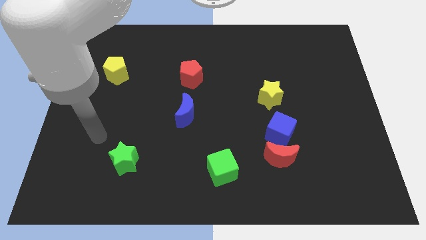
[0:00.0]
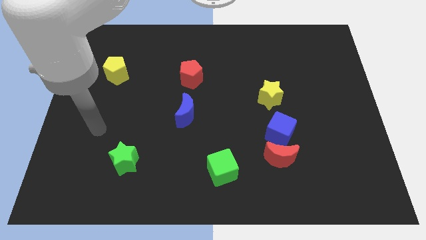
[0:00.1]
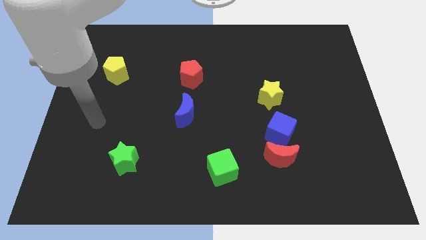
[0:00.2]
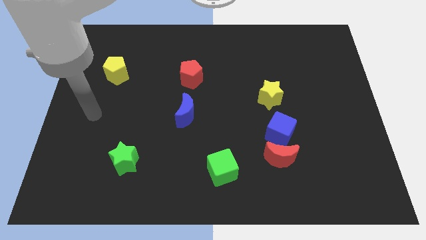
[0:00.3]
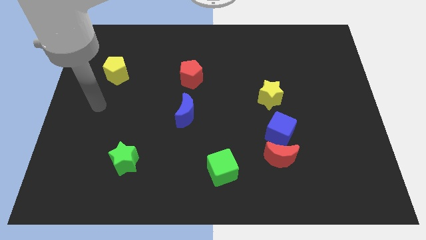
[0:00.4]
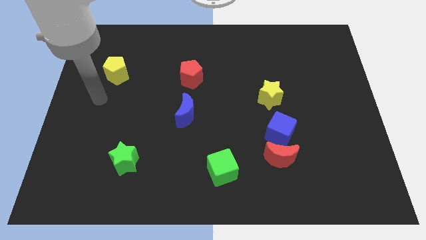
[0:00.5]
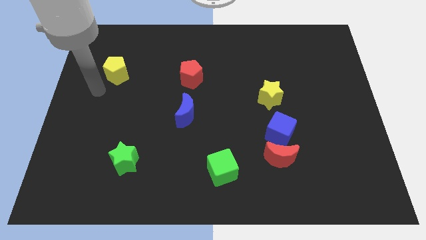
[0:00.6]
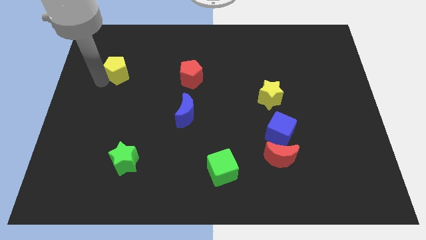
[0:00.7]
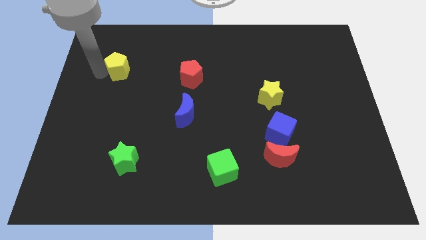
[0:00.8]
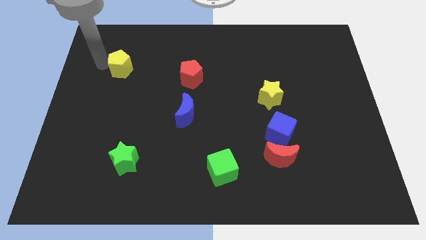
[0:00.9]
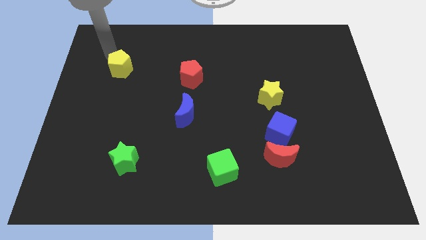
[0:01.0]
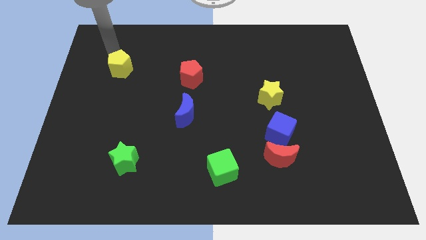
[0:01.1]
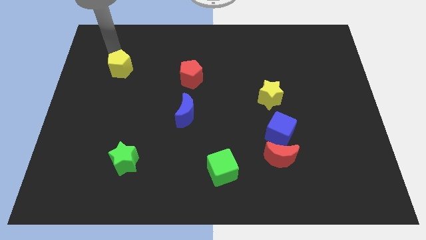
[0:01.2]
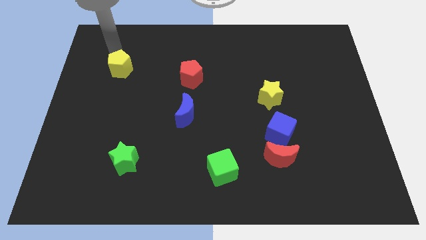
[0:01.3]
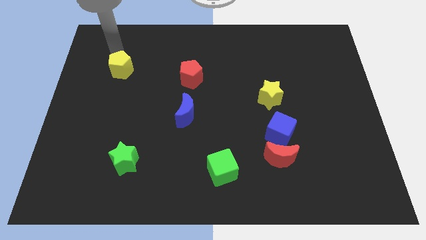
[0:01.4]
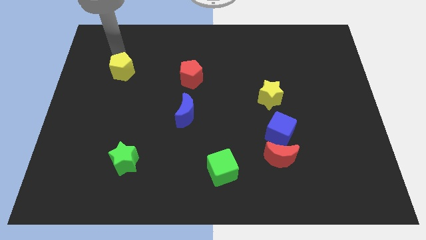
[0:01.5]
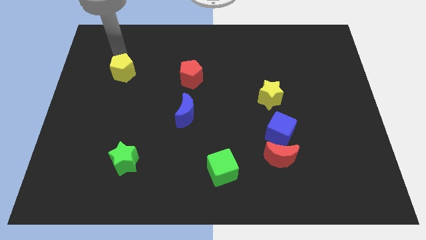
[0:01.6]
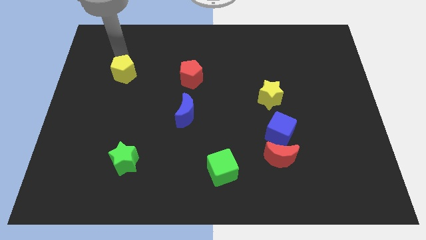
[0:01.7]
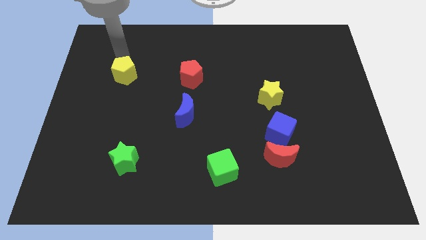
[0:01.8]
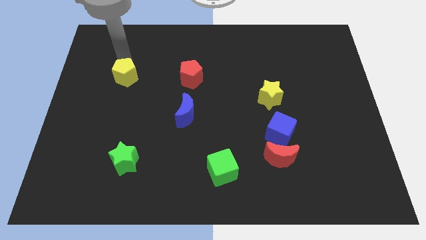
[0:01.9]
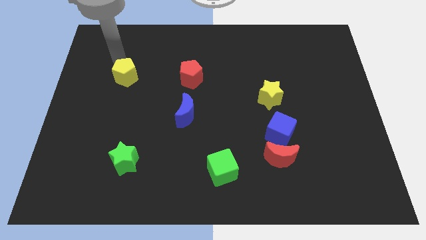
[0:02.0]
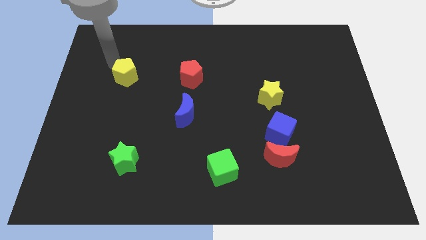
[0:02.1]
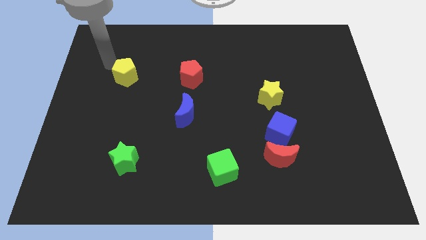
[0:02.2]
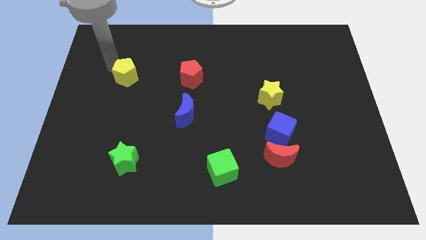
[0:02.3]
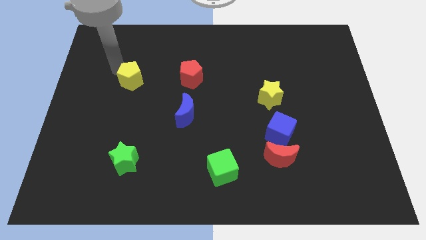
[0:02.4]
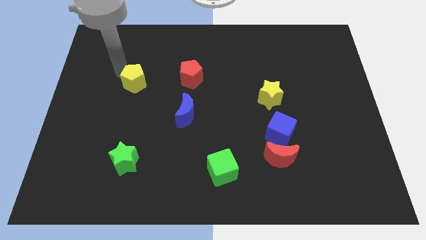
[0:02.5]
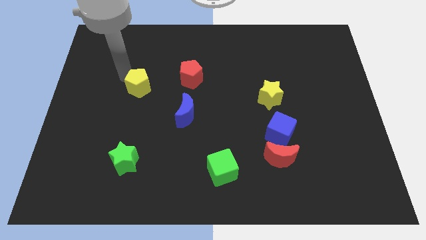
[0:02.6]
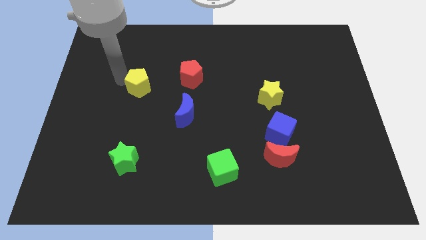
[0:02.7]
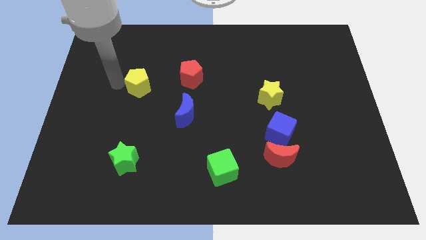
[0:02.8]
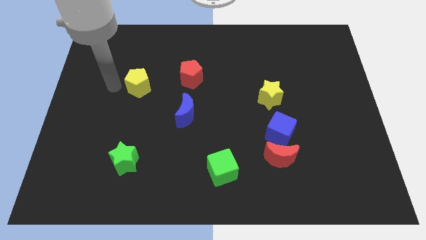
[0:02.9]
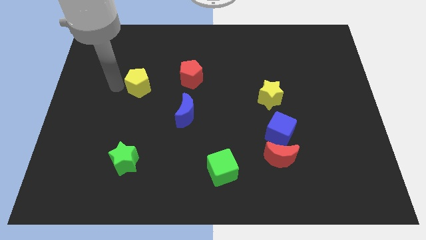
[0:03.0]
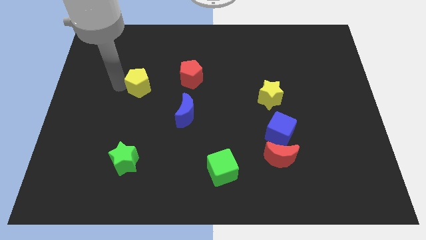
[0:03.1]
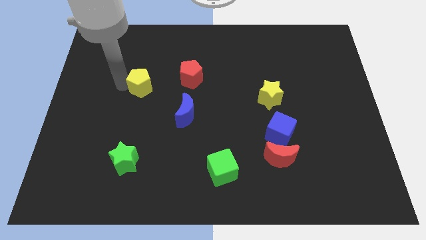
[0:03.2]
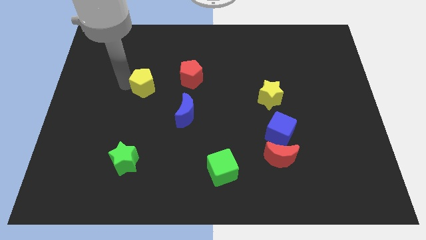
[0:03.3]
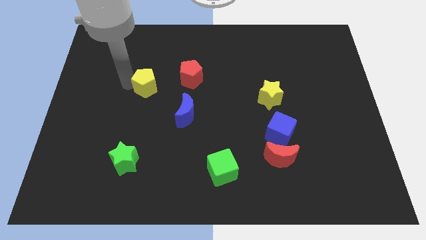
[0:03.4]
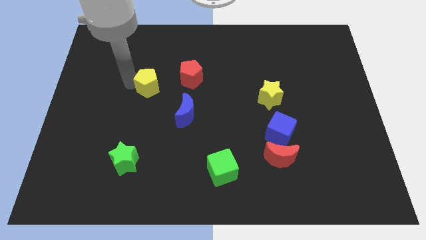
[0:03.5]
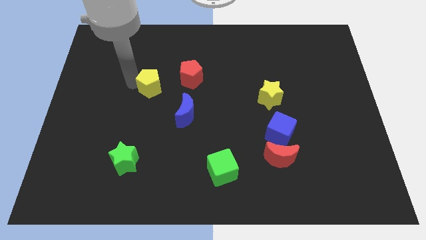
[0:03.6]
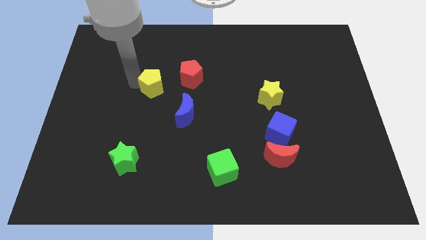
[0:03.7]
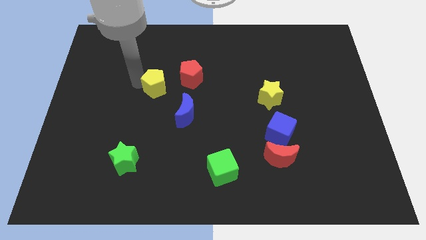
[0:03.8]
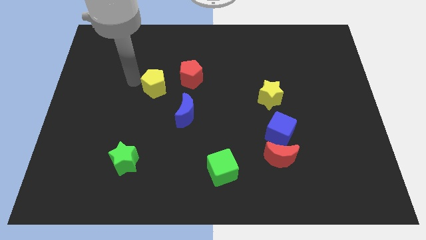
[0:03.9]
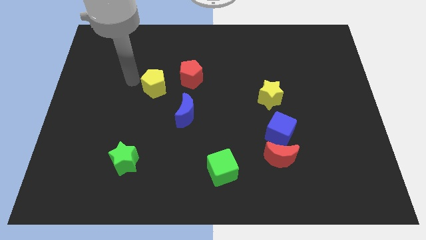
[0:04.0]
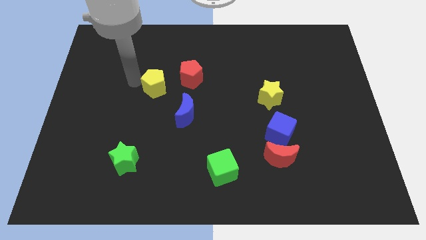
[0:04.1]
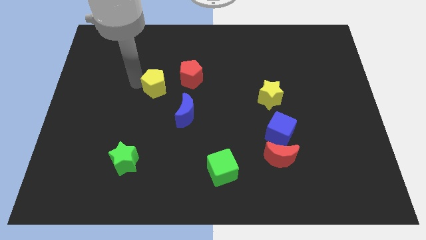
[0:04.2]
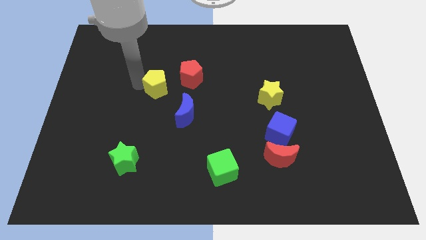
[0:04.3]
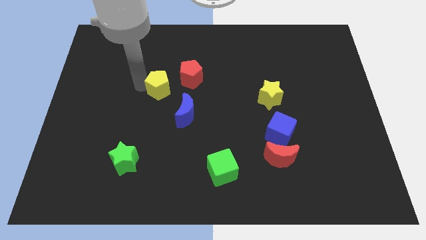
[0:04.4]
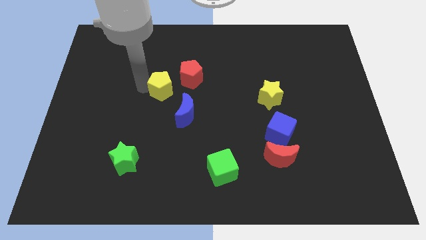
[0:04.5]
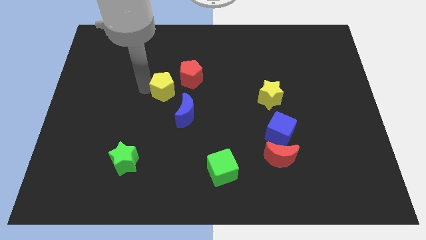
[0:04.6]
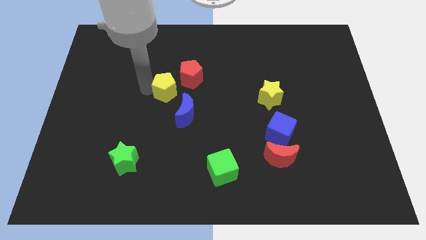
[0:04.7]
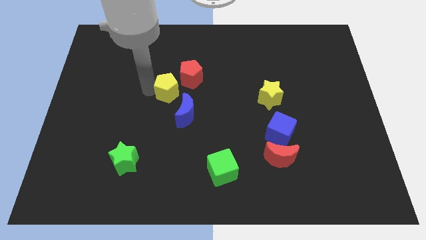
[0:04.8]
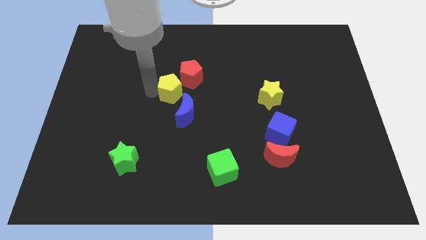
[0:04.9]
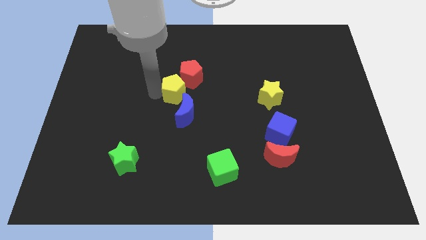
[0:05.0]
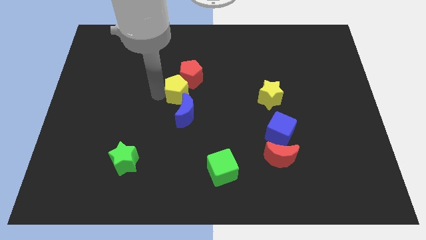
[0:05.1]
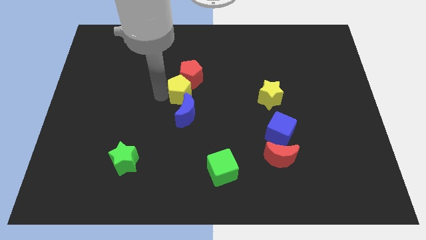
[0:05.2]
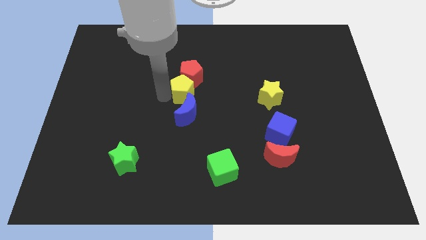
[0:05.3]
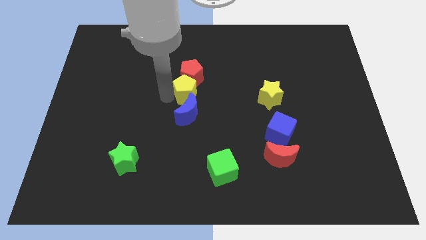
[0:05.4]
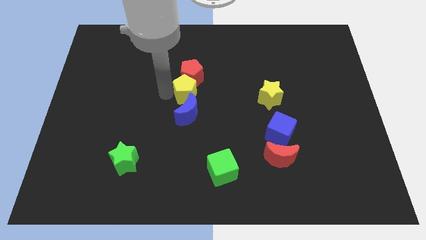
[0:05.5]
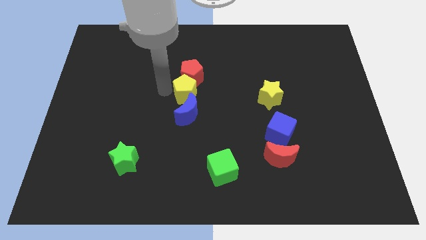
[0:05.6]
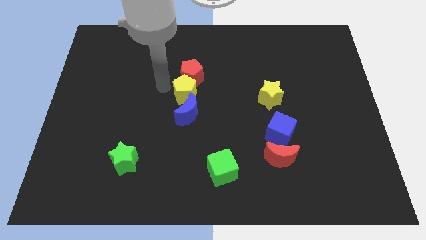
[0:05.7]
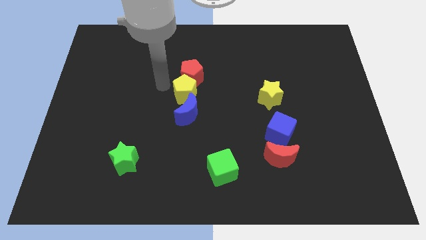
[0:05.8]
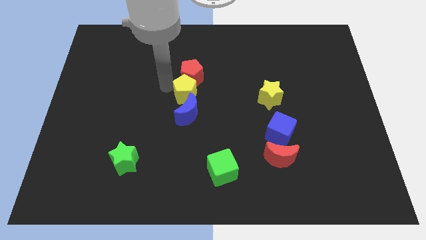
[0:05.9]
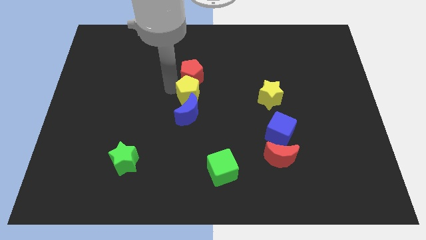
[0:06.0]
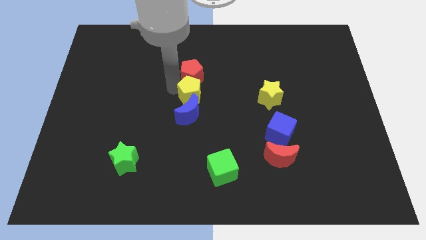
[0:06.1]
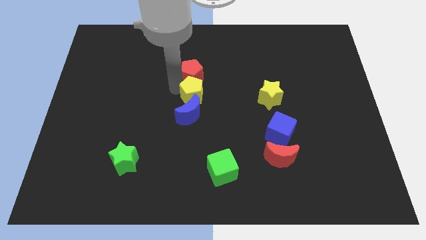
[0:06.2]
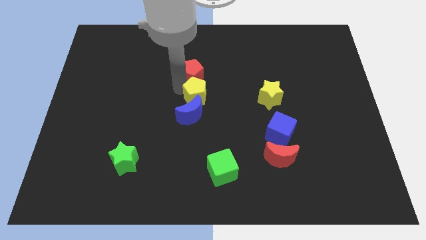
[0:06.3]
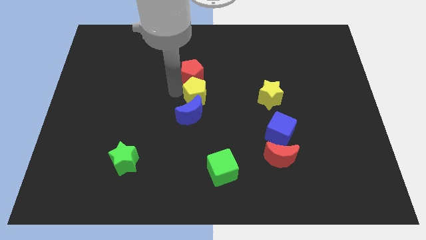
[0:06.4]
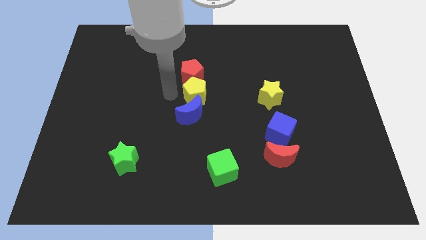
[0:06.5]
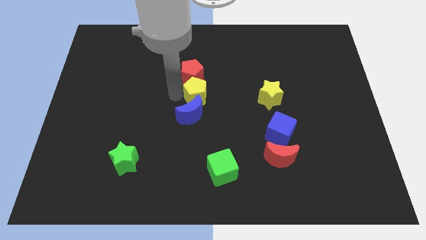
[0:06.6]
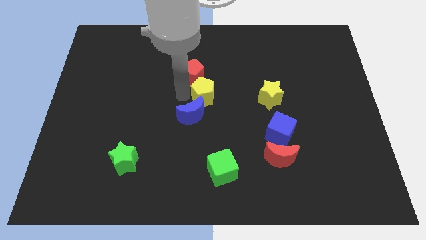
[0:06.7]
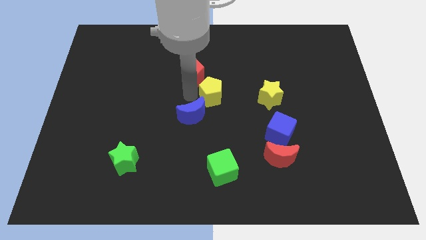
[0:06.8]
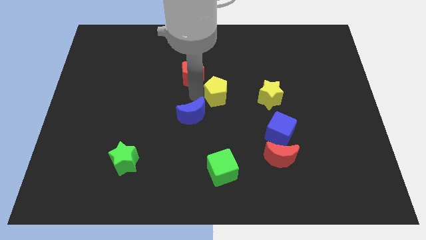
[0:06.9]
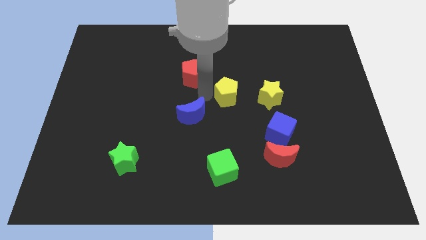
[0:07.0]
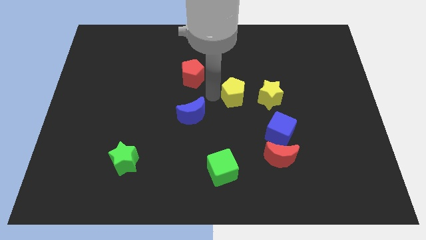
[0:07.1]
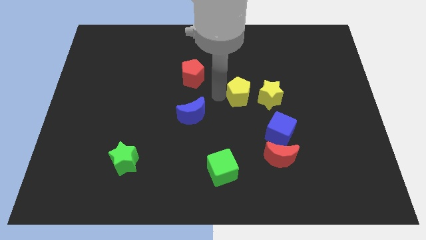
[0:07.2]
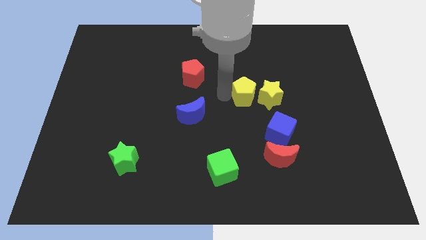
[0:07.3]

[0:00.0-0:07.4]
slide the yellow pentagon close to the yellow star
